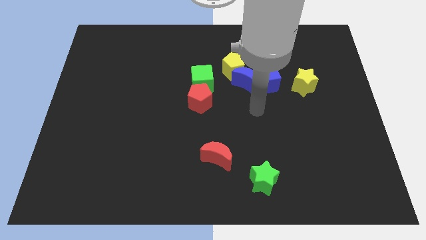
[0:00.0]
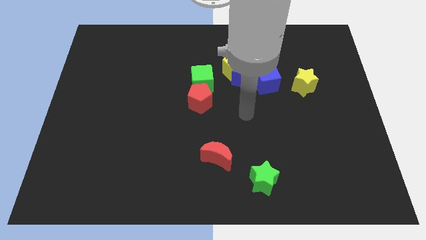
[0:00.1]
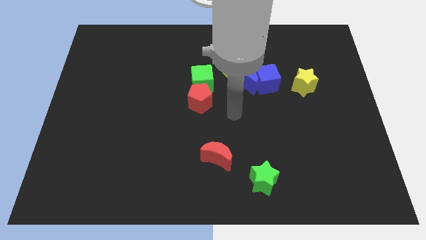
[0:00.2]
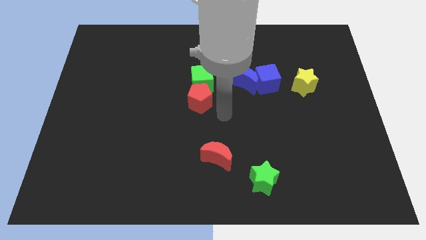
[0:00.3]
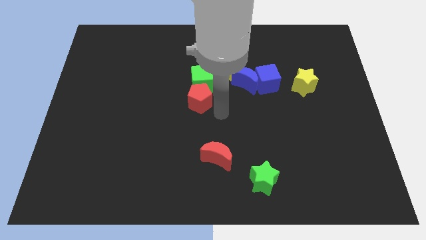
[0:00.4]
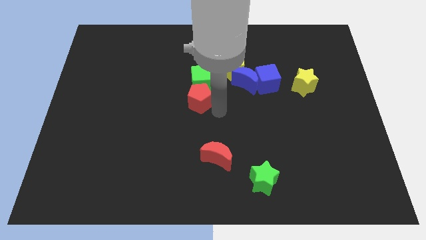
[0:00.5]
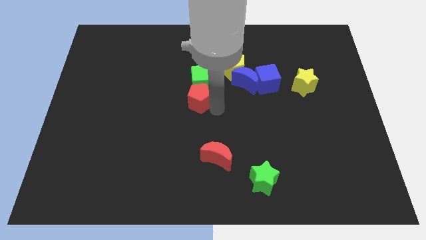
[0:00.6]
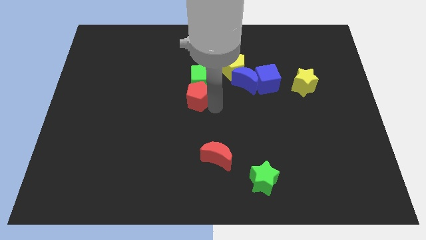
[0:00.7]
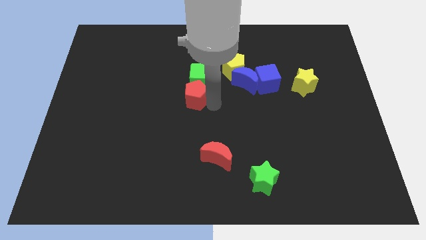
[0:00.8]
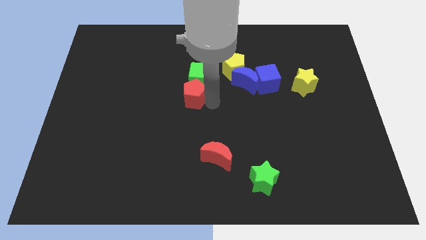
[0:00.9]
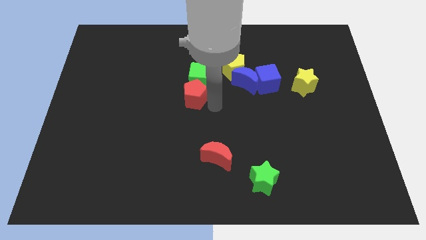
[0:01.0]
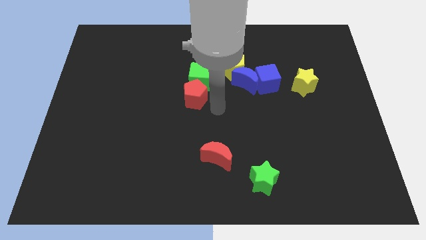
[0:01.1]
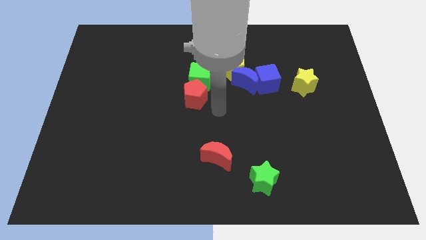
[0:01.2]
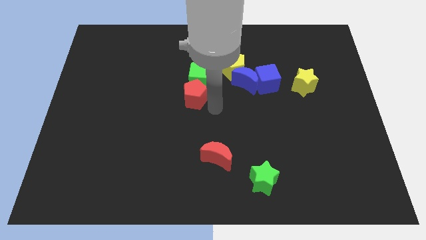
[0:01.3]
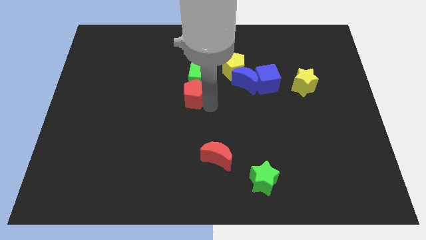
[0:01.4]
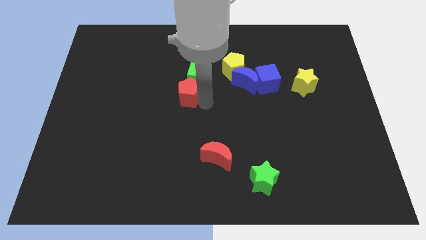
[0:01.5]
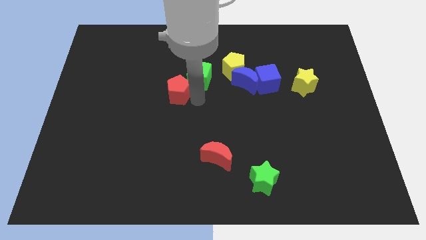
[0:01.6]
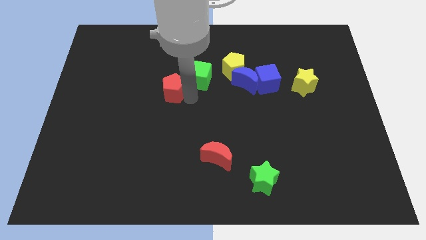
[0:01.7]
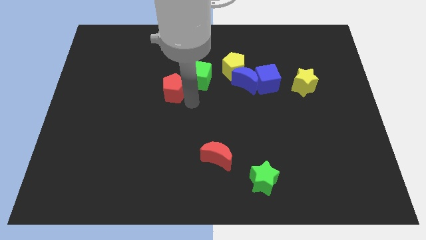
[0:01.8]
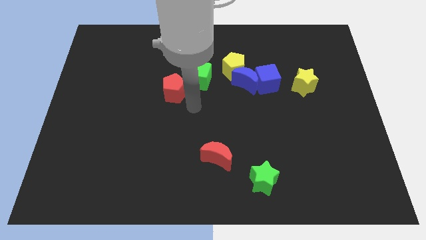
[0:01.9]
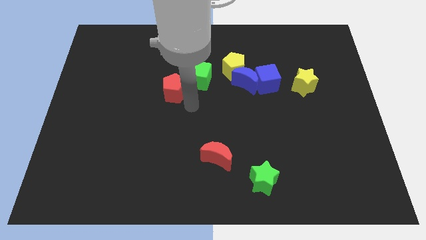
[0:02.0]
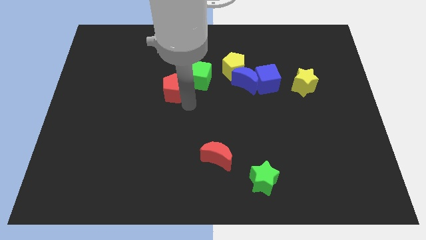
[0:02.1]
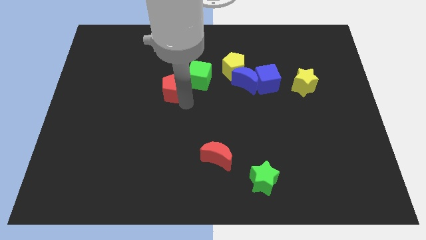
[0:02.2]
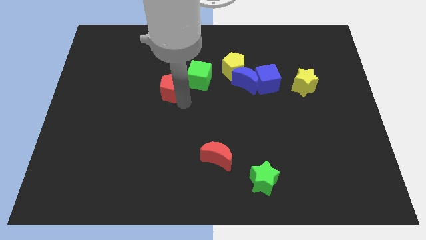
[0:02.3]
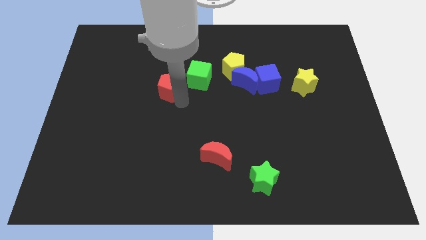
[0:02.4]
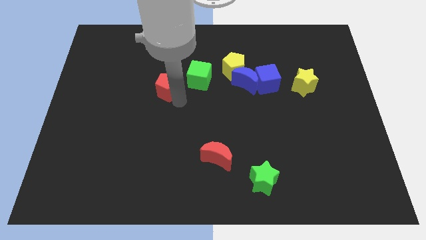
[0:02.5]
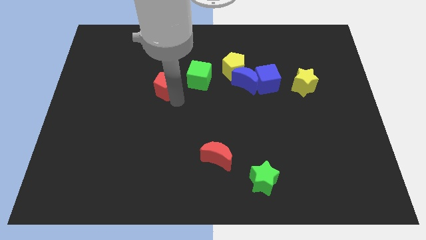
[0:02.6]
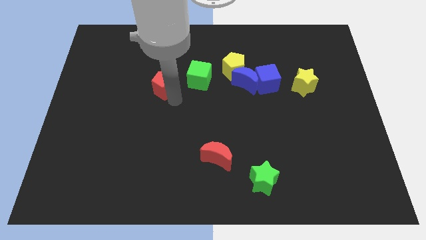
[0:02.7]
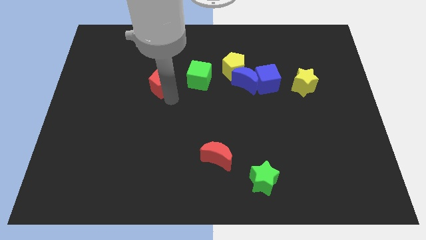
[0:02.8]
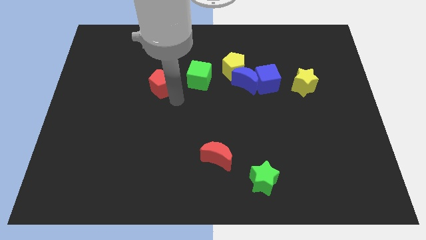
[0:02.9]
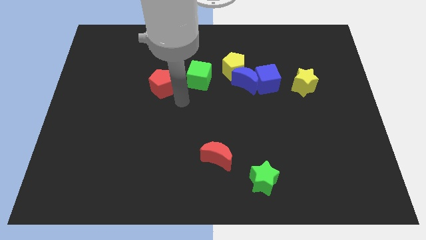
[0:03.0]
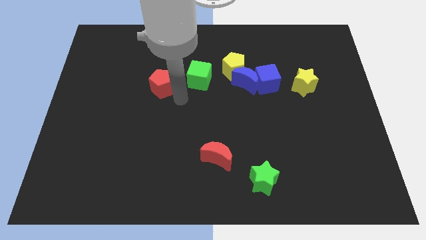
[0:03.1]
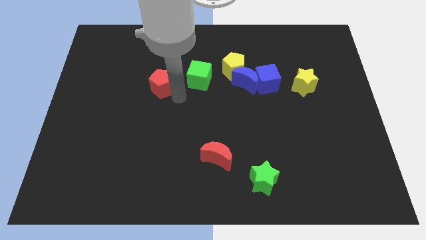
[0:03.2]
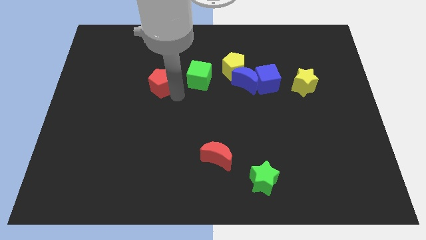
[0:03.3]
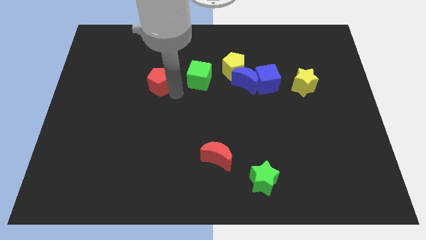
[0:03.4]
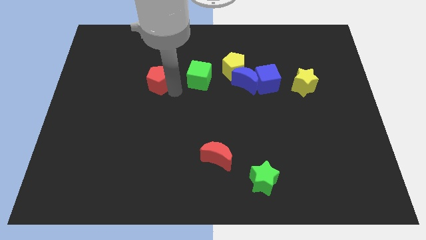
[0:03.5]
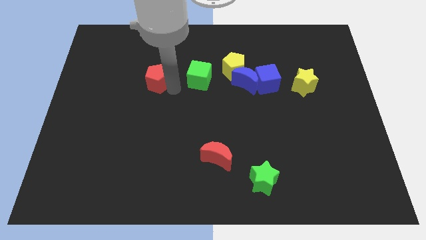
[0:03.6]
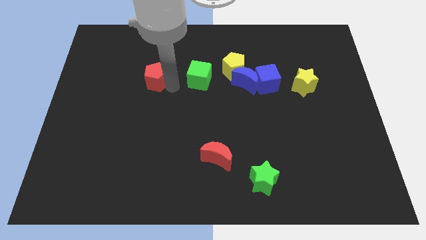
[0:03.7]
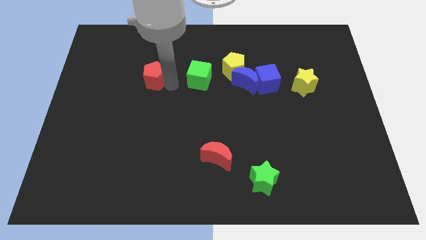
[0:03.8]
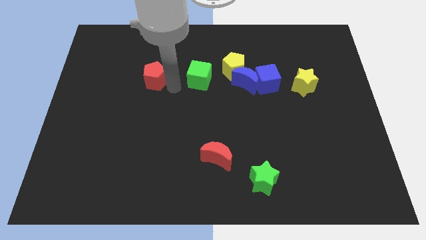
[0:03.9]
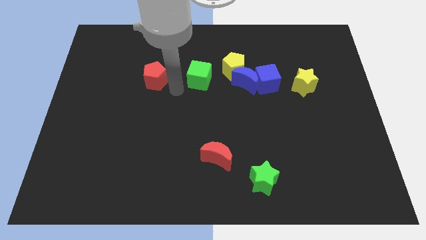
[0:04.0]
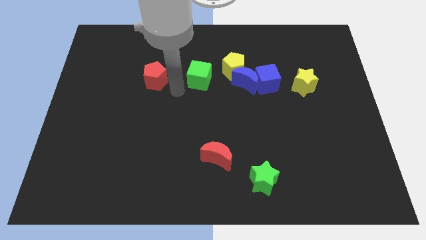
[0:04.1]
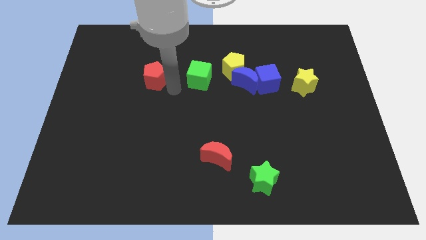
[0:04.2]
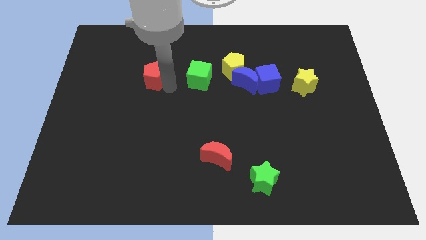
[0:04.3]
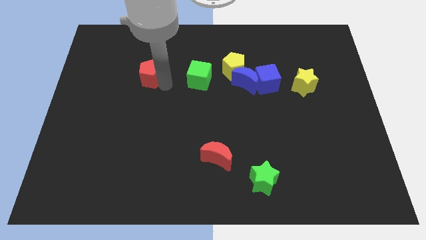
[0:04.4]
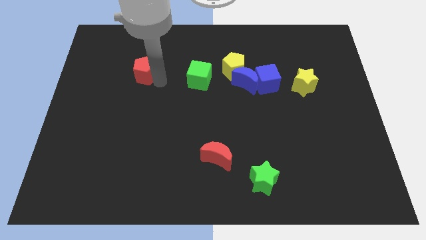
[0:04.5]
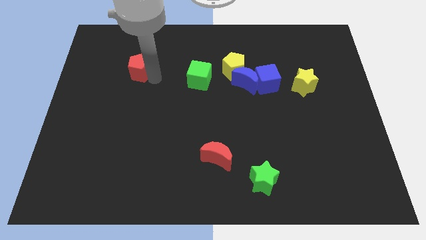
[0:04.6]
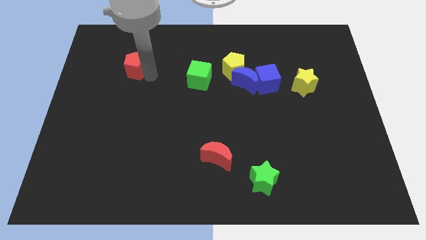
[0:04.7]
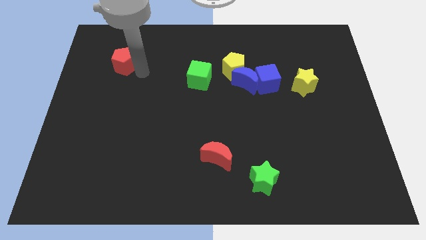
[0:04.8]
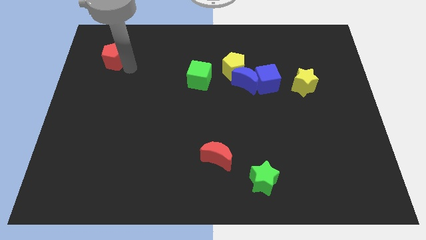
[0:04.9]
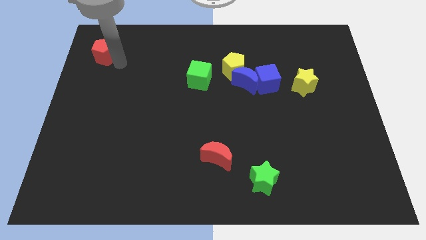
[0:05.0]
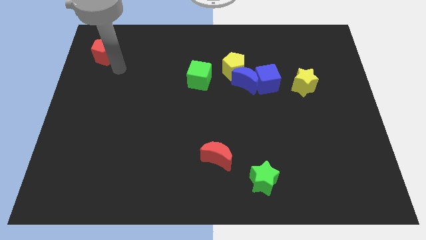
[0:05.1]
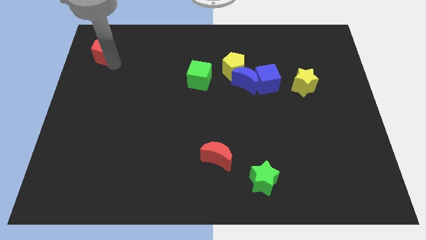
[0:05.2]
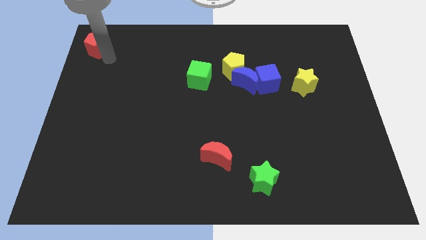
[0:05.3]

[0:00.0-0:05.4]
put the red pentagon to the upper left corner
